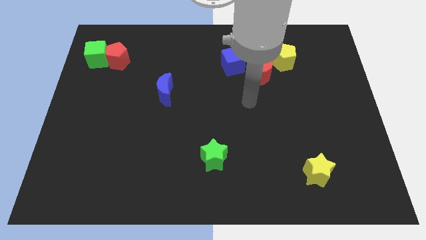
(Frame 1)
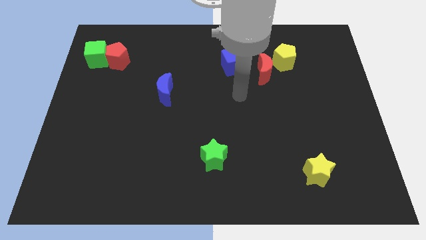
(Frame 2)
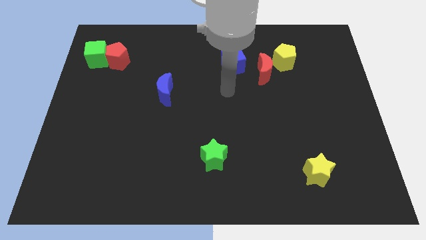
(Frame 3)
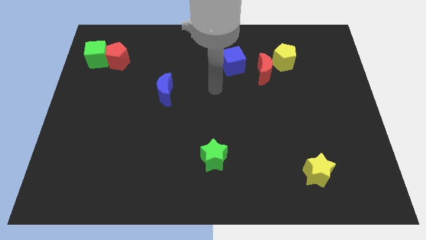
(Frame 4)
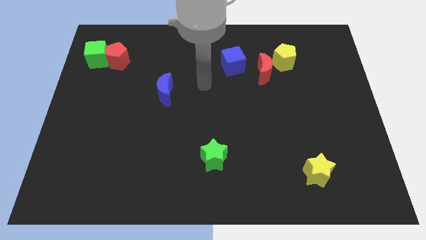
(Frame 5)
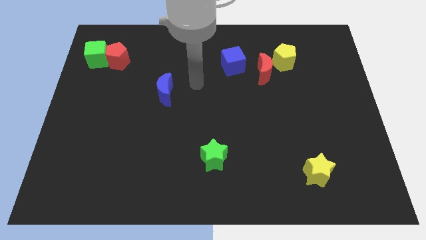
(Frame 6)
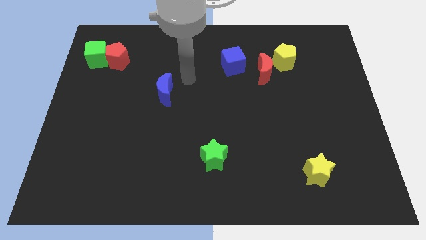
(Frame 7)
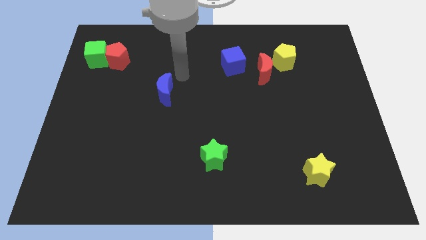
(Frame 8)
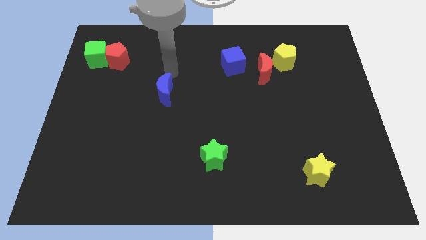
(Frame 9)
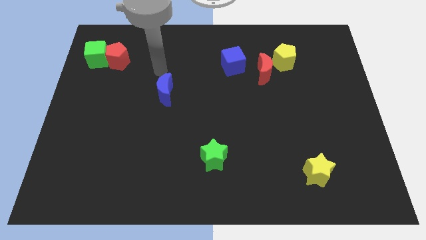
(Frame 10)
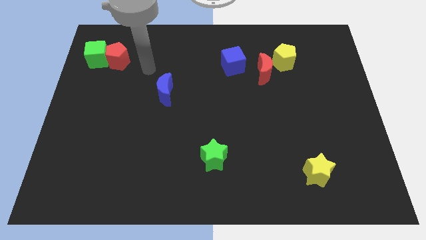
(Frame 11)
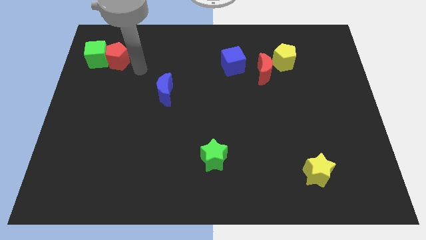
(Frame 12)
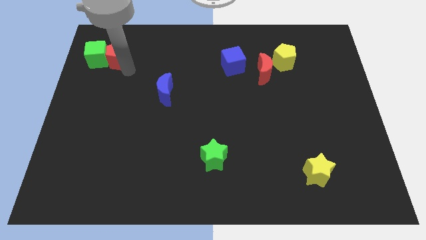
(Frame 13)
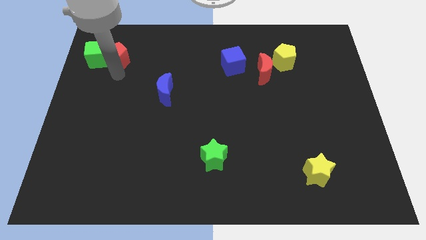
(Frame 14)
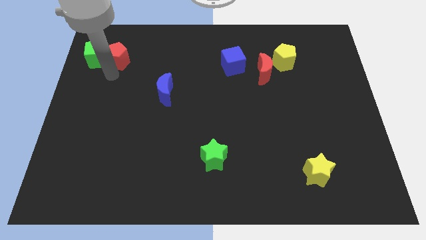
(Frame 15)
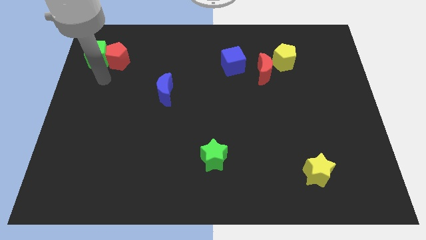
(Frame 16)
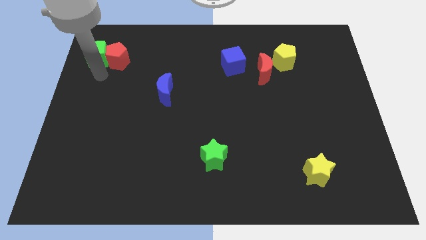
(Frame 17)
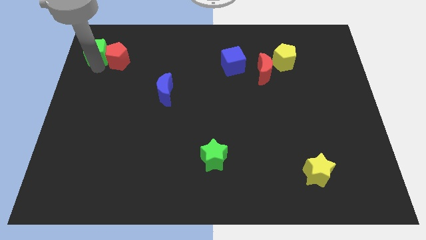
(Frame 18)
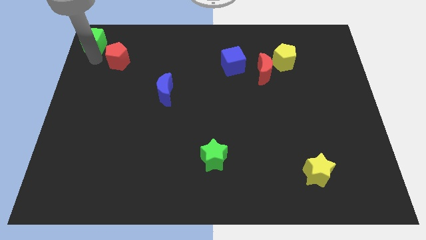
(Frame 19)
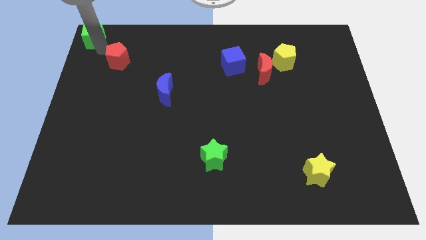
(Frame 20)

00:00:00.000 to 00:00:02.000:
pull the red pentagon apart from the green cube

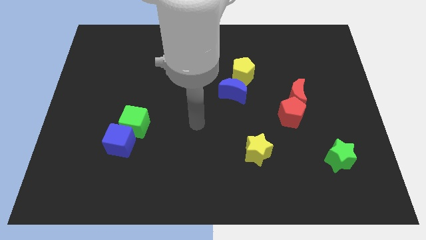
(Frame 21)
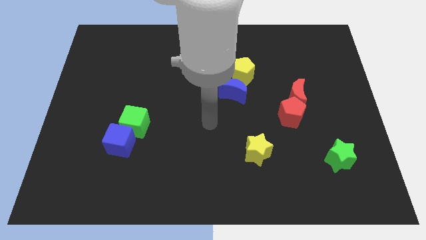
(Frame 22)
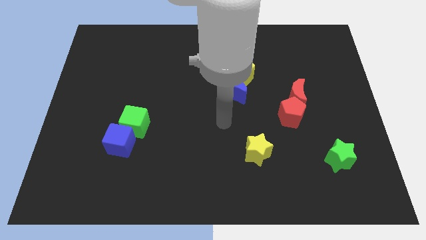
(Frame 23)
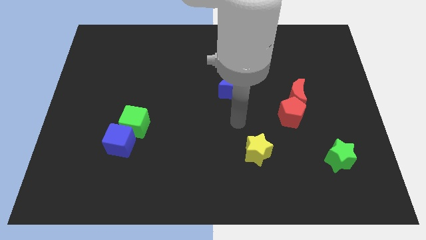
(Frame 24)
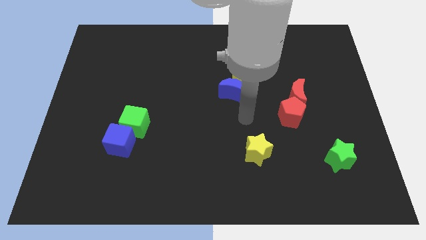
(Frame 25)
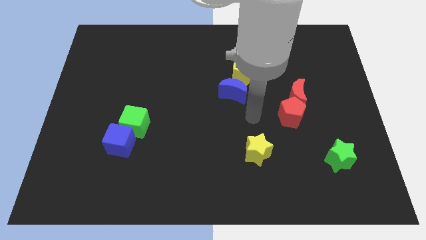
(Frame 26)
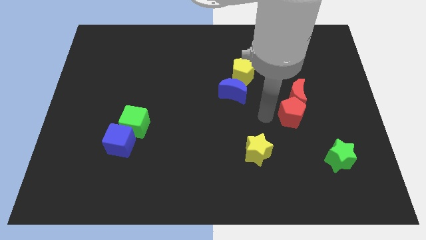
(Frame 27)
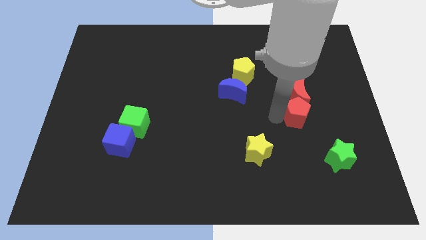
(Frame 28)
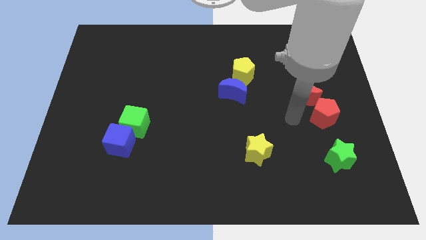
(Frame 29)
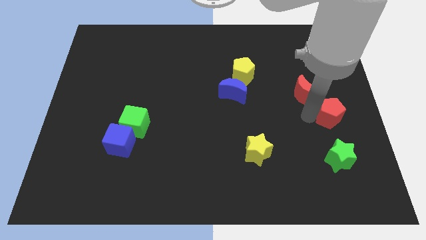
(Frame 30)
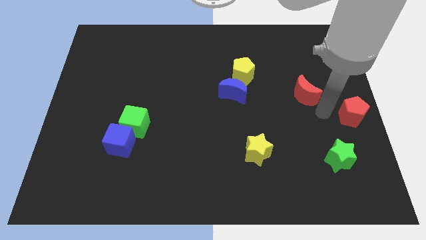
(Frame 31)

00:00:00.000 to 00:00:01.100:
pull the red moon apart from the red pentagon

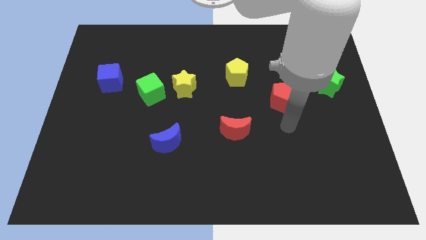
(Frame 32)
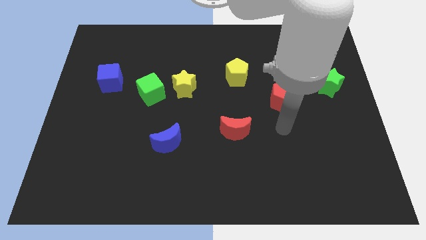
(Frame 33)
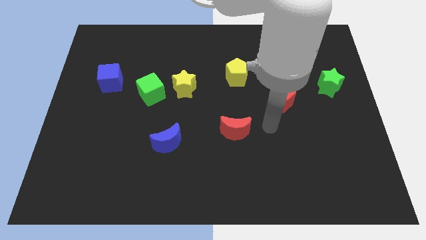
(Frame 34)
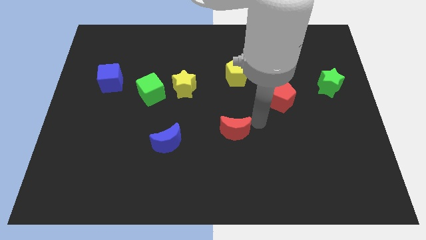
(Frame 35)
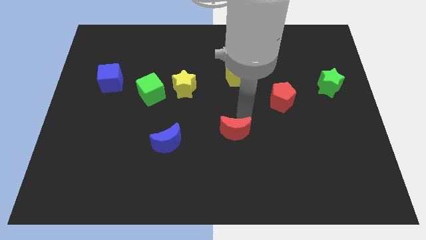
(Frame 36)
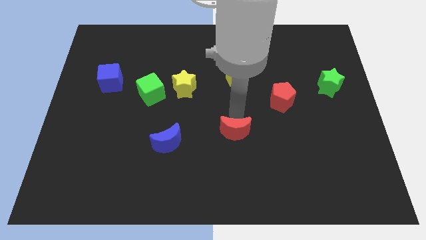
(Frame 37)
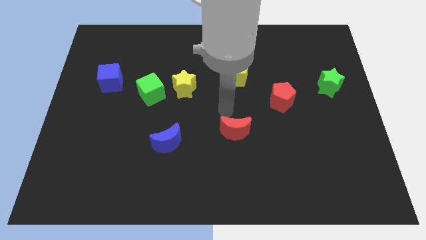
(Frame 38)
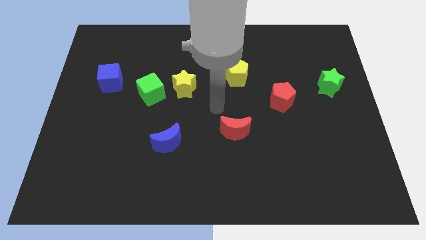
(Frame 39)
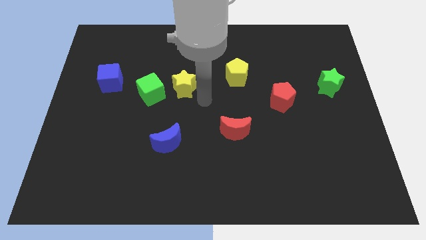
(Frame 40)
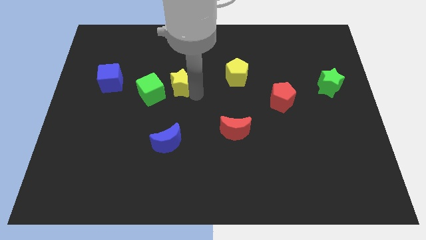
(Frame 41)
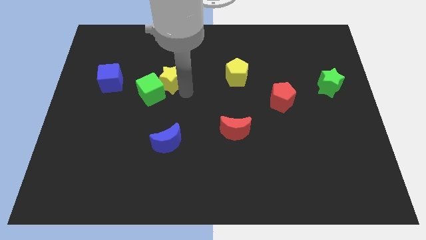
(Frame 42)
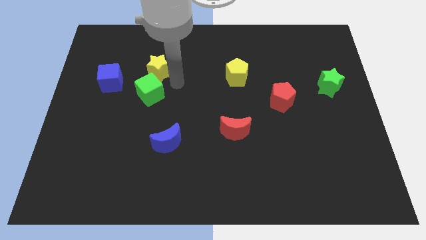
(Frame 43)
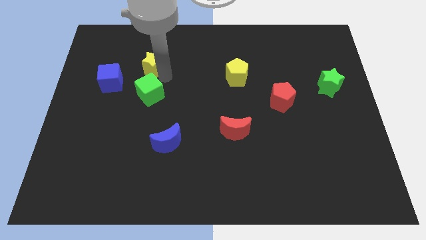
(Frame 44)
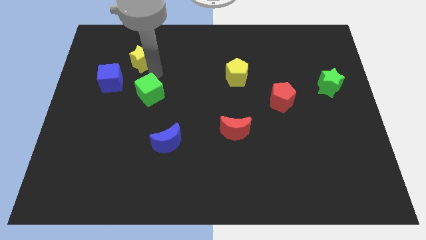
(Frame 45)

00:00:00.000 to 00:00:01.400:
pull the green cube apart from the yellow star

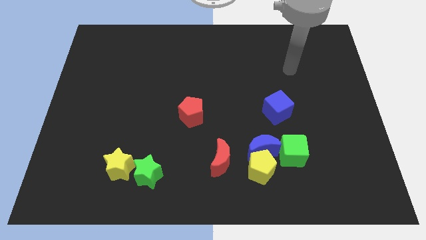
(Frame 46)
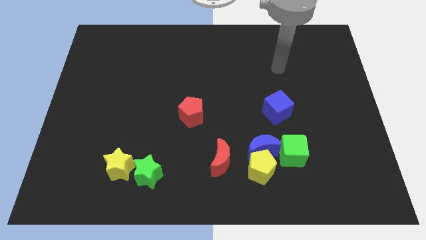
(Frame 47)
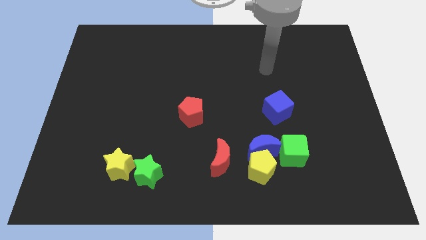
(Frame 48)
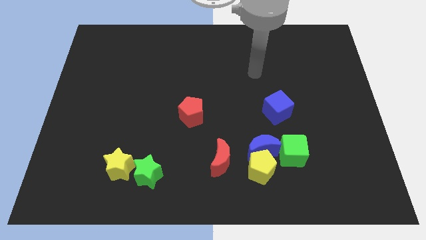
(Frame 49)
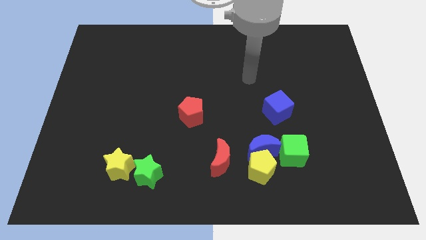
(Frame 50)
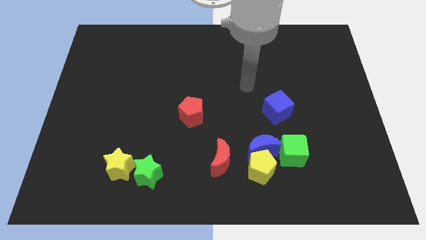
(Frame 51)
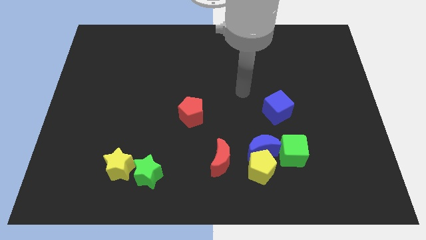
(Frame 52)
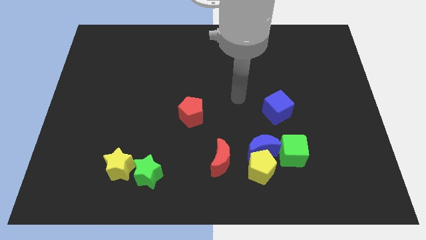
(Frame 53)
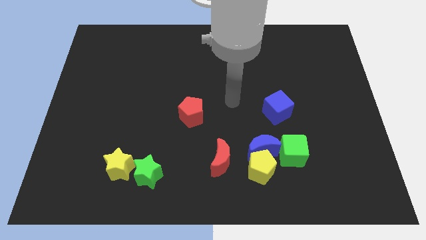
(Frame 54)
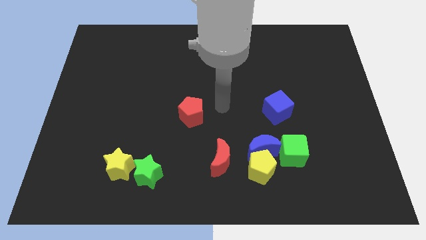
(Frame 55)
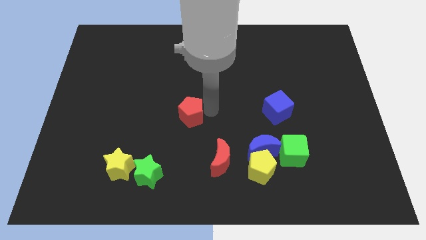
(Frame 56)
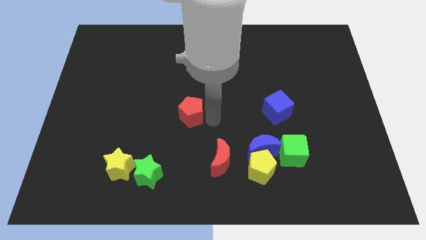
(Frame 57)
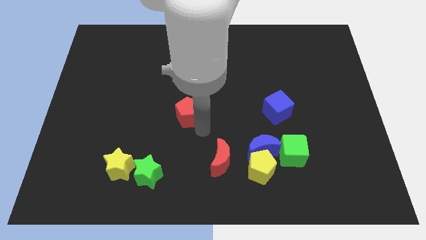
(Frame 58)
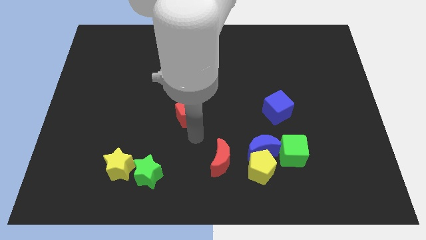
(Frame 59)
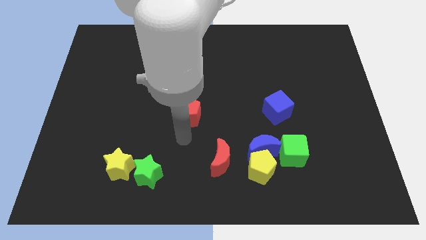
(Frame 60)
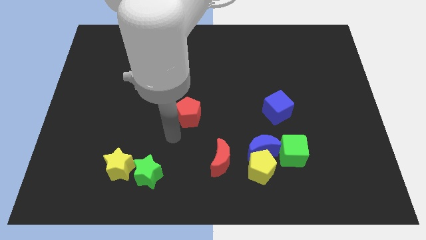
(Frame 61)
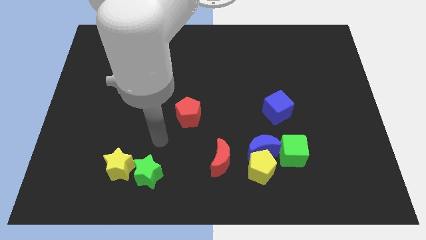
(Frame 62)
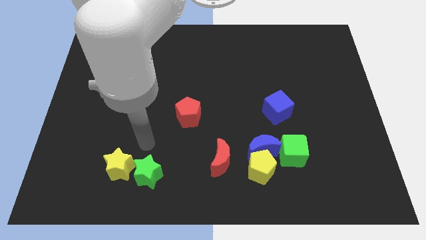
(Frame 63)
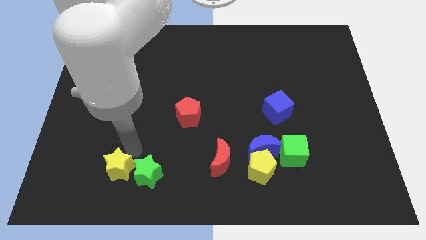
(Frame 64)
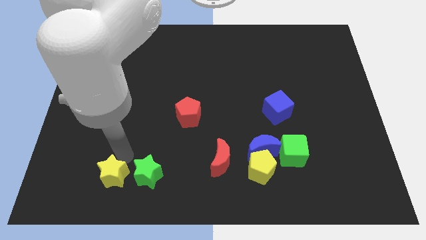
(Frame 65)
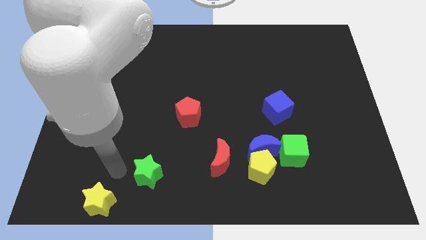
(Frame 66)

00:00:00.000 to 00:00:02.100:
move the green star away from the yellow star

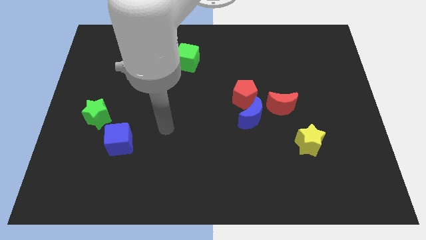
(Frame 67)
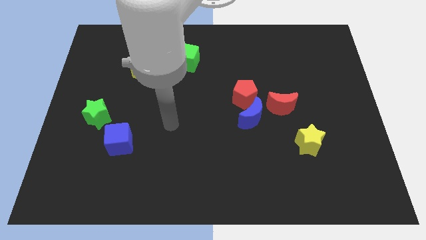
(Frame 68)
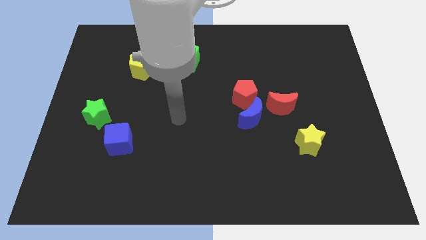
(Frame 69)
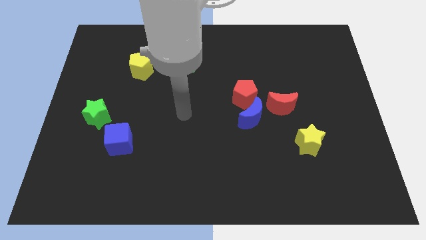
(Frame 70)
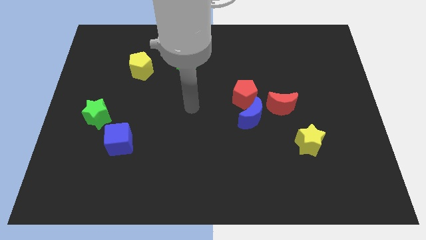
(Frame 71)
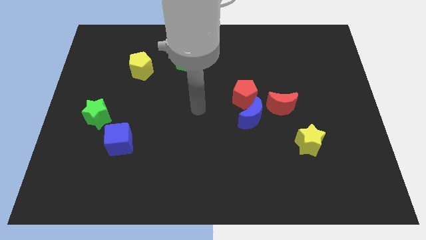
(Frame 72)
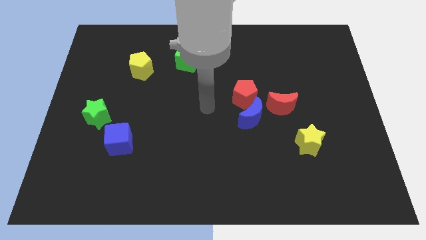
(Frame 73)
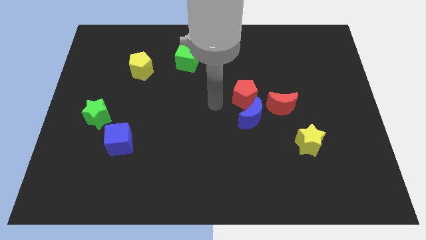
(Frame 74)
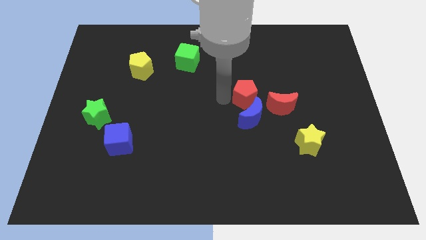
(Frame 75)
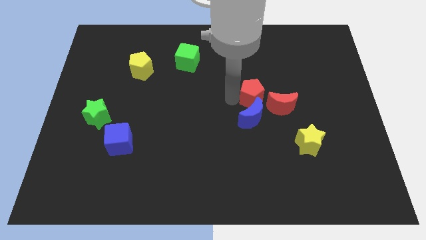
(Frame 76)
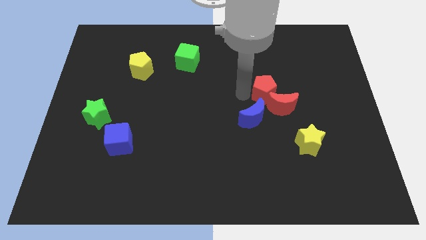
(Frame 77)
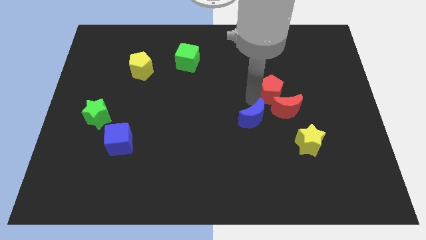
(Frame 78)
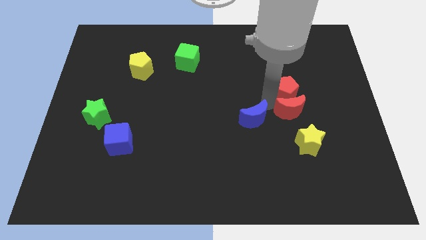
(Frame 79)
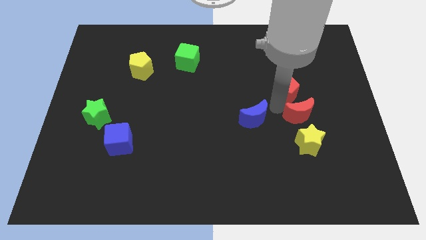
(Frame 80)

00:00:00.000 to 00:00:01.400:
move the blue moon away from the red pentagon and red moon

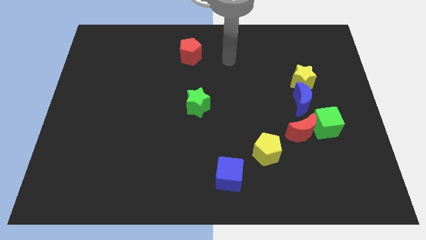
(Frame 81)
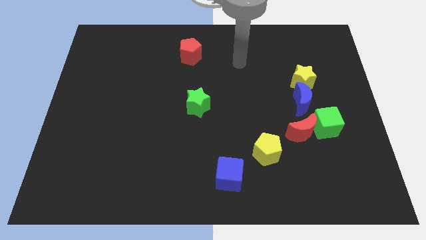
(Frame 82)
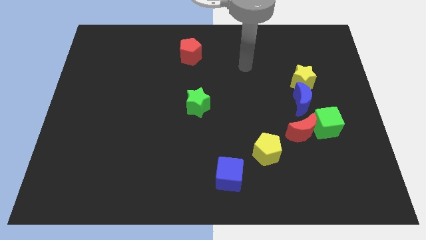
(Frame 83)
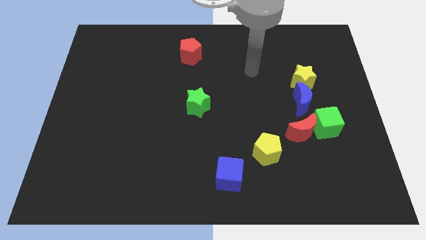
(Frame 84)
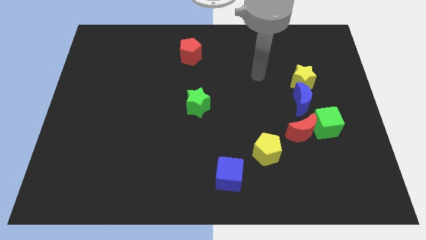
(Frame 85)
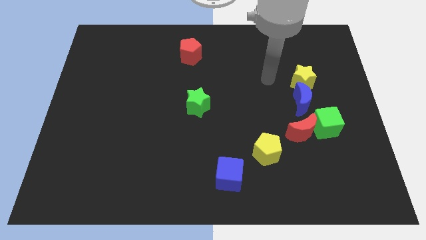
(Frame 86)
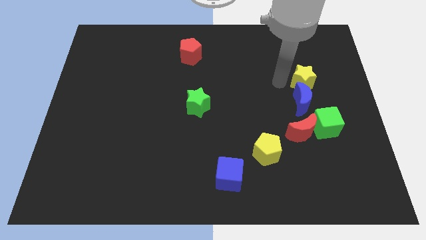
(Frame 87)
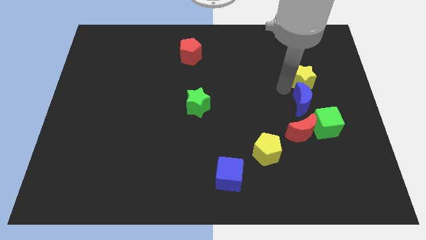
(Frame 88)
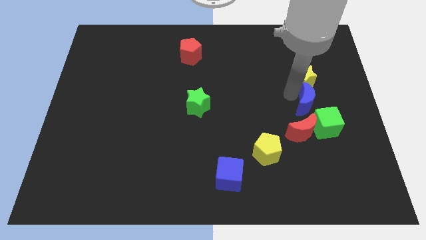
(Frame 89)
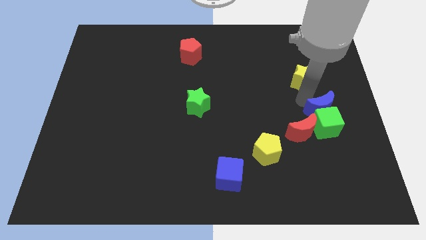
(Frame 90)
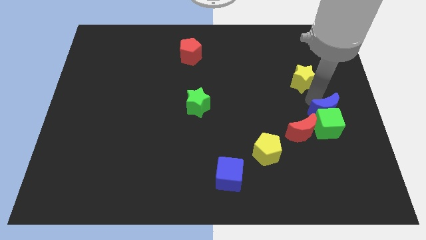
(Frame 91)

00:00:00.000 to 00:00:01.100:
pull the yellow star apart from the blue moon

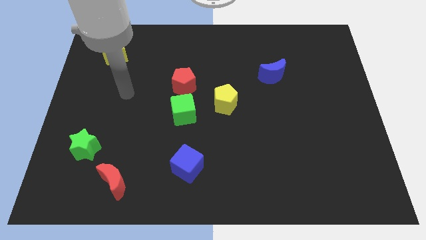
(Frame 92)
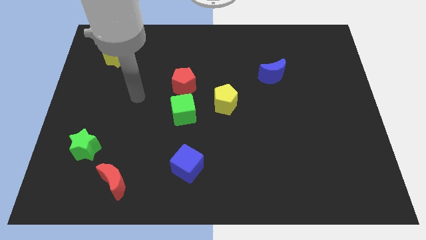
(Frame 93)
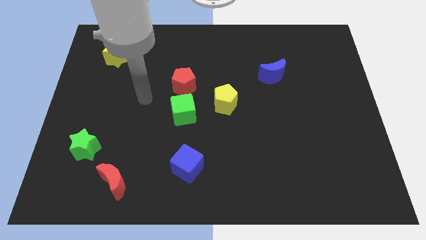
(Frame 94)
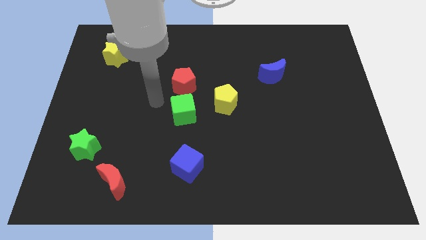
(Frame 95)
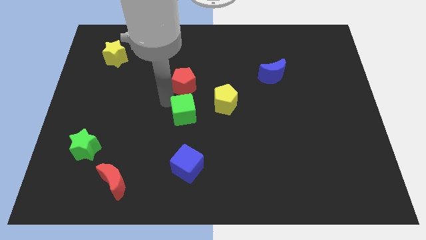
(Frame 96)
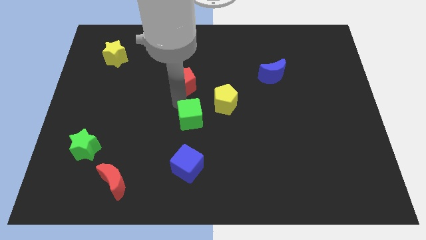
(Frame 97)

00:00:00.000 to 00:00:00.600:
separate the red pentagon from the green cube
